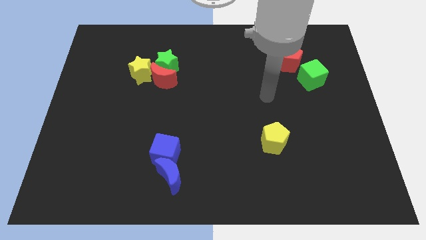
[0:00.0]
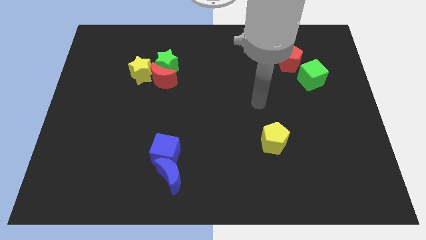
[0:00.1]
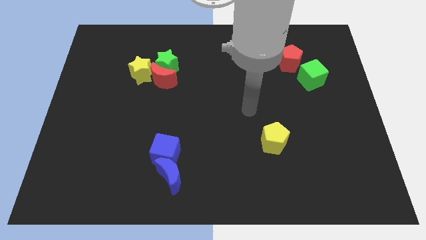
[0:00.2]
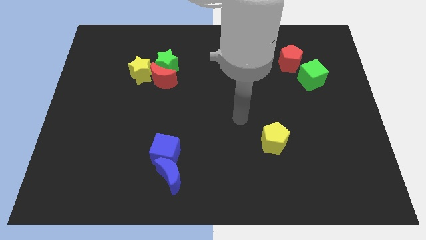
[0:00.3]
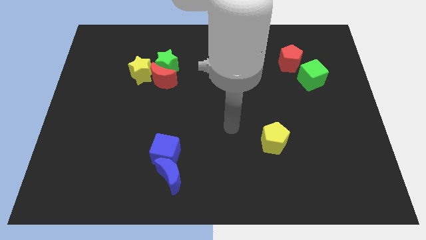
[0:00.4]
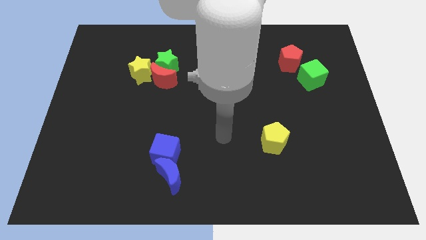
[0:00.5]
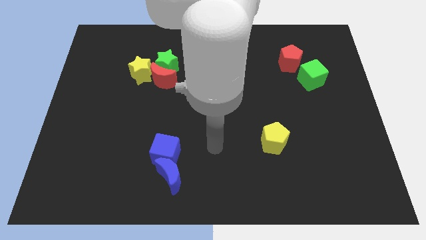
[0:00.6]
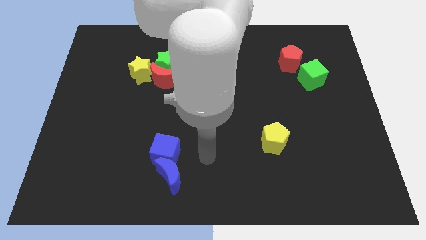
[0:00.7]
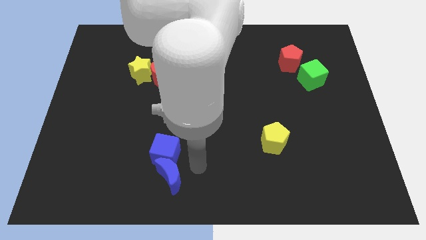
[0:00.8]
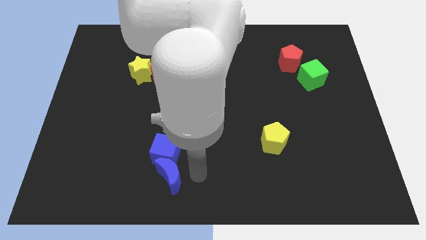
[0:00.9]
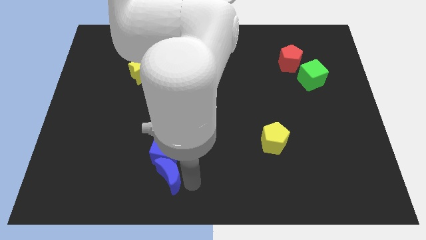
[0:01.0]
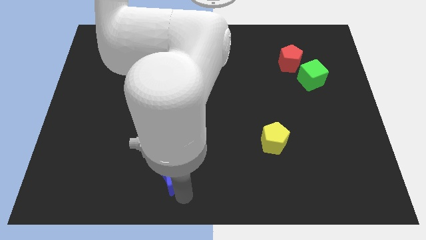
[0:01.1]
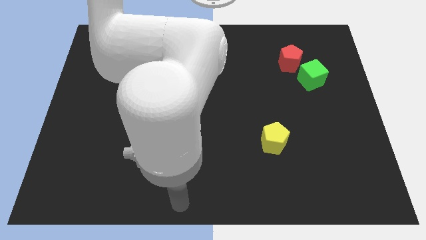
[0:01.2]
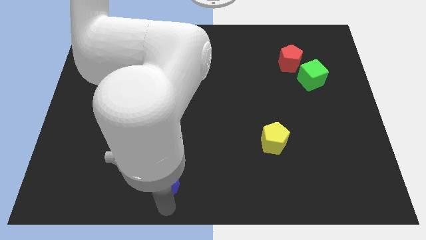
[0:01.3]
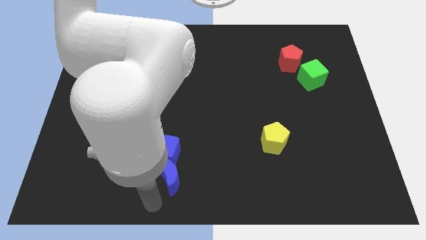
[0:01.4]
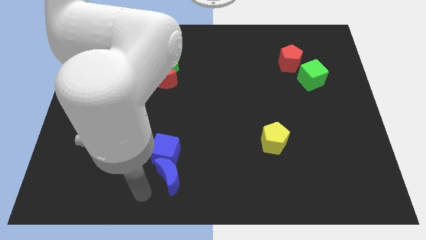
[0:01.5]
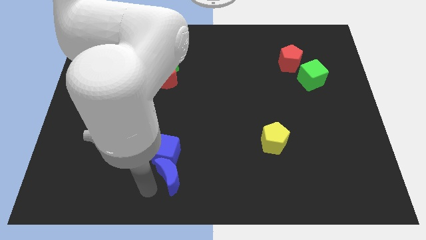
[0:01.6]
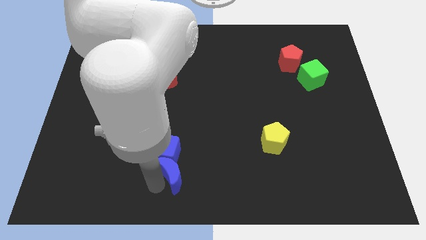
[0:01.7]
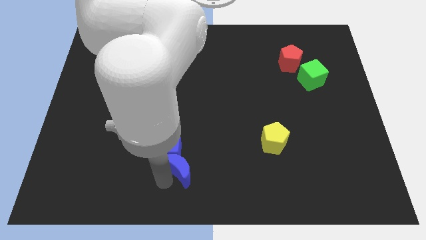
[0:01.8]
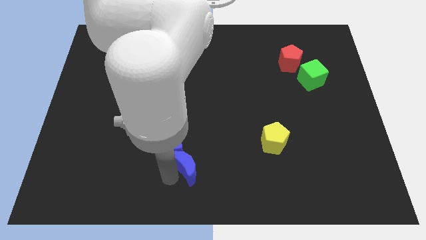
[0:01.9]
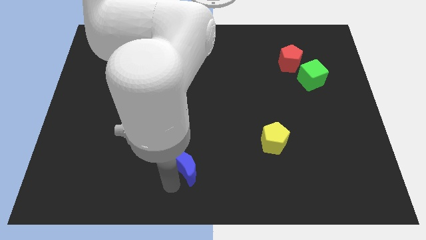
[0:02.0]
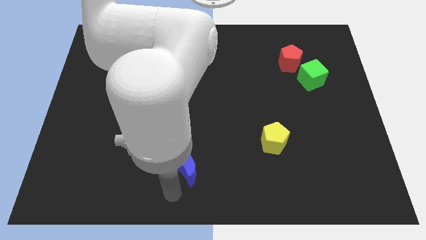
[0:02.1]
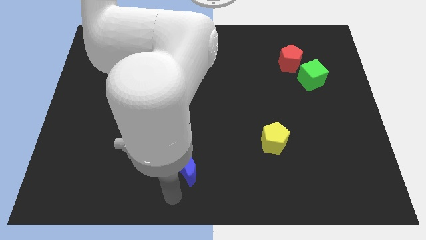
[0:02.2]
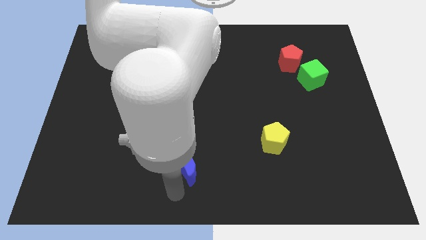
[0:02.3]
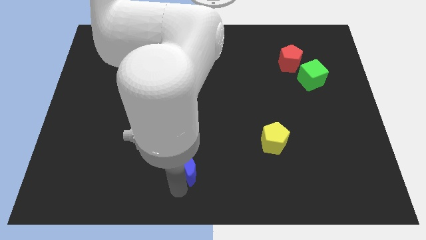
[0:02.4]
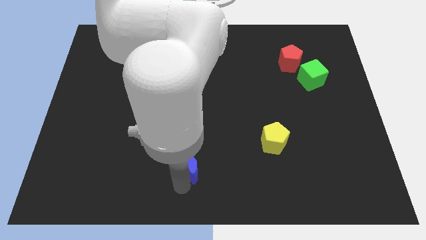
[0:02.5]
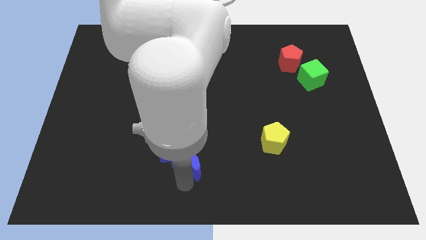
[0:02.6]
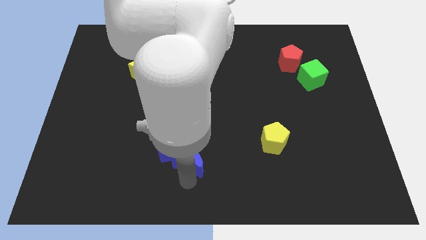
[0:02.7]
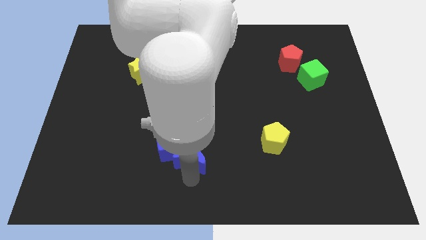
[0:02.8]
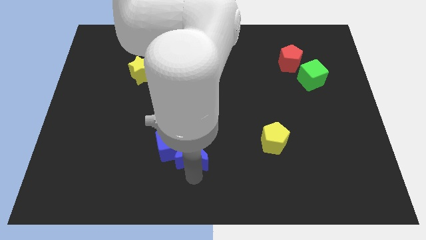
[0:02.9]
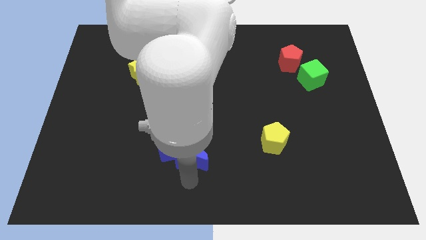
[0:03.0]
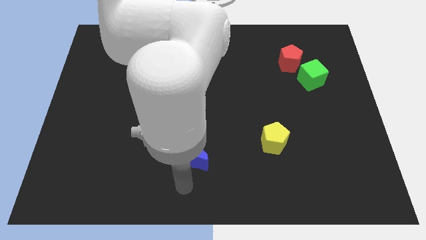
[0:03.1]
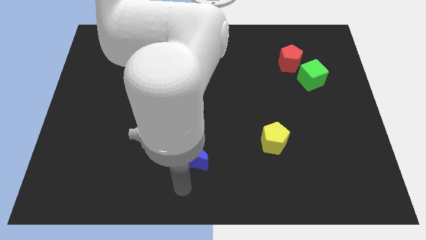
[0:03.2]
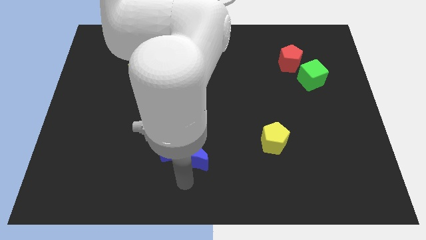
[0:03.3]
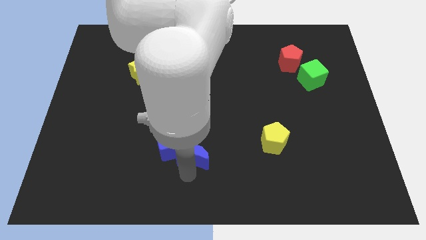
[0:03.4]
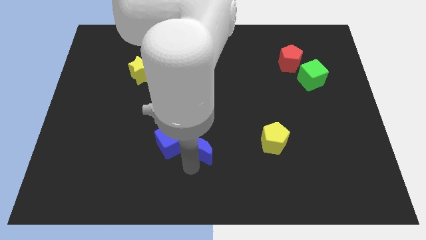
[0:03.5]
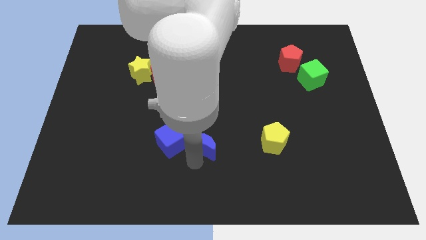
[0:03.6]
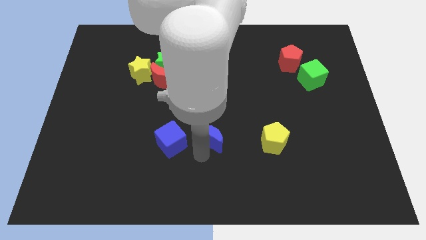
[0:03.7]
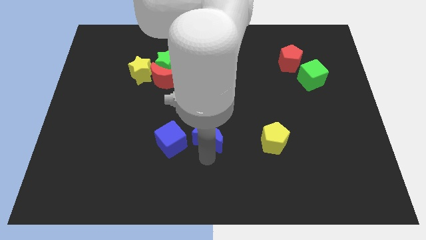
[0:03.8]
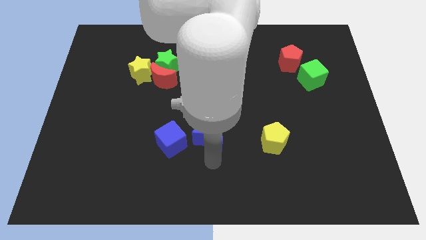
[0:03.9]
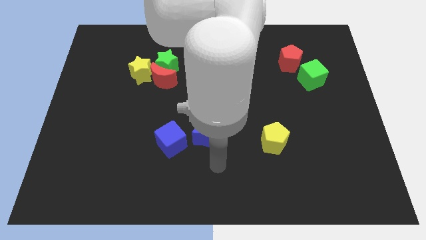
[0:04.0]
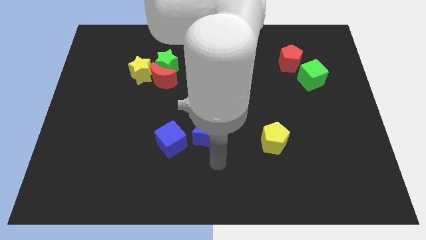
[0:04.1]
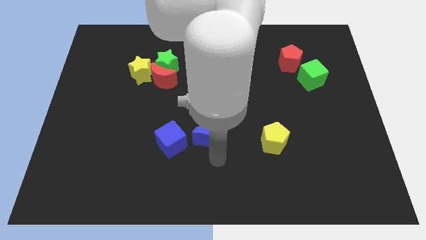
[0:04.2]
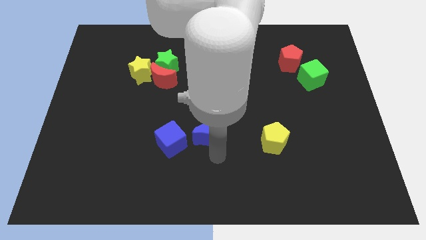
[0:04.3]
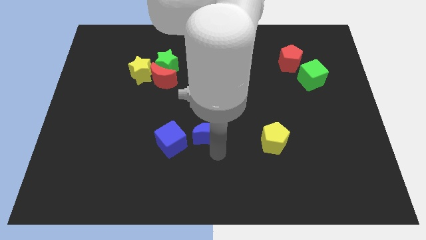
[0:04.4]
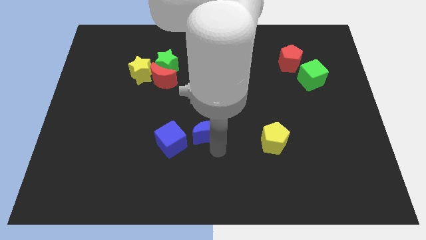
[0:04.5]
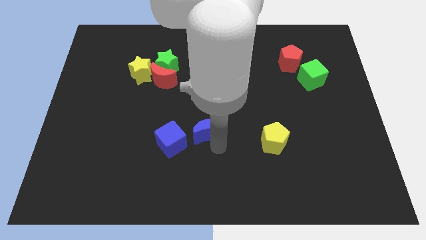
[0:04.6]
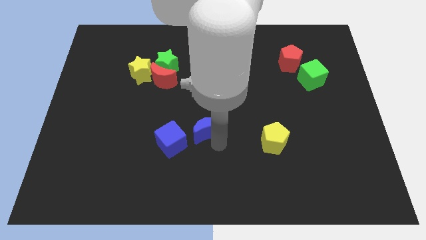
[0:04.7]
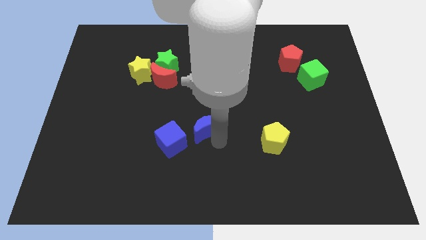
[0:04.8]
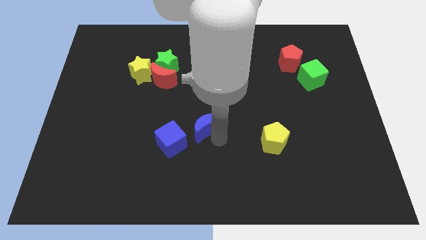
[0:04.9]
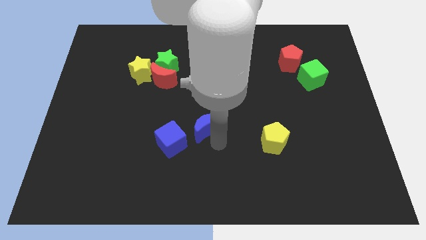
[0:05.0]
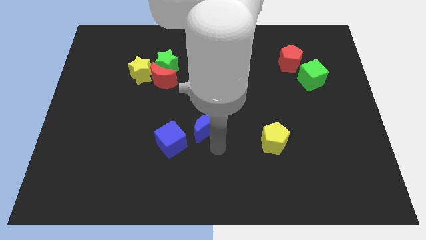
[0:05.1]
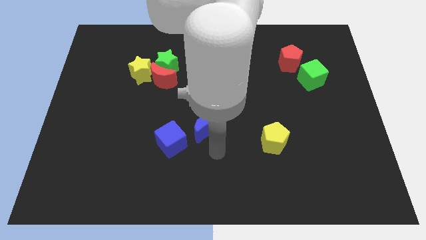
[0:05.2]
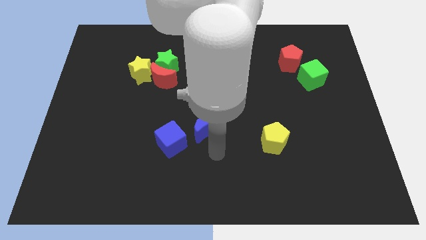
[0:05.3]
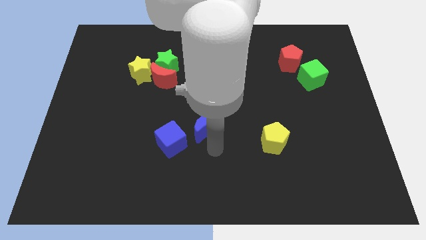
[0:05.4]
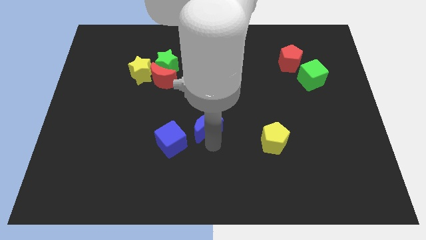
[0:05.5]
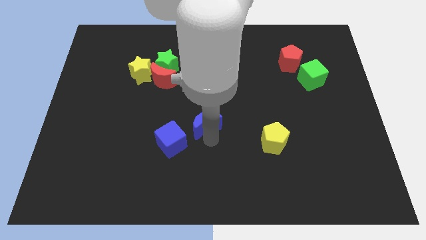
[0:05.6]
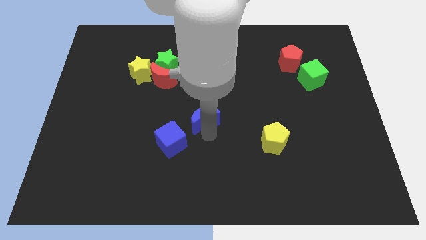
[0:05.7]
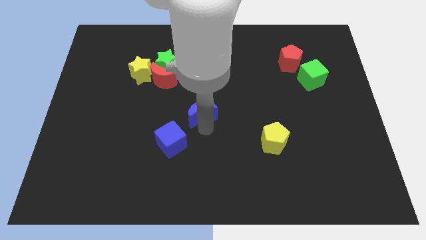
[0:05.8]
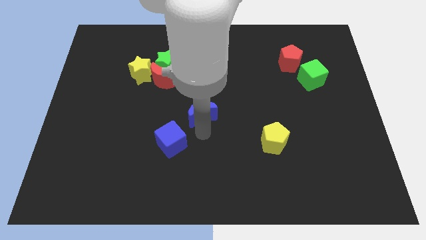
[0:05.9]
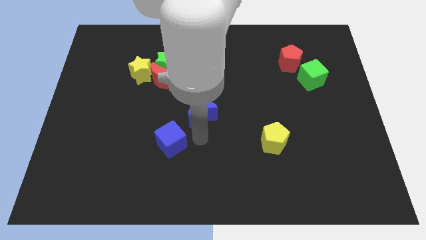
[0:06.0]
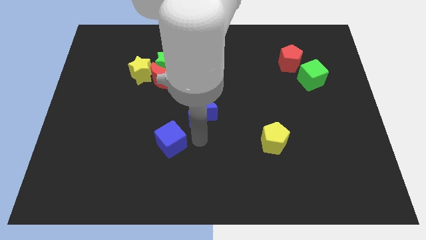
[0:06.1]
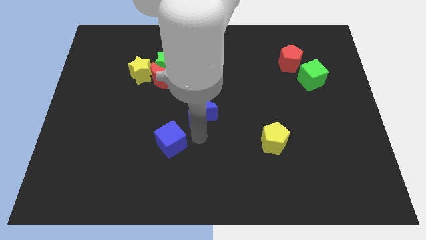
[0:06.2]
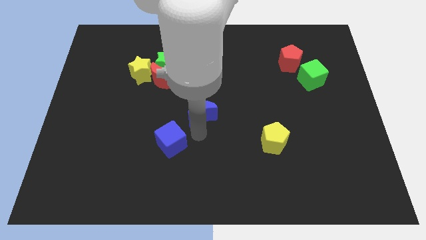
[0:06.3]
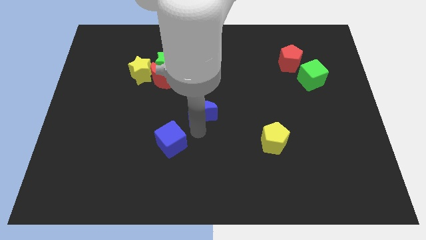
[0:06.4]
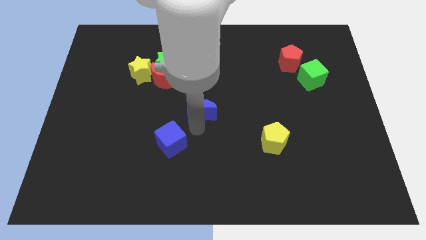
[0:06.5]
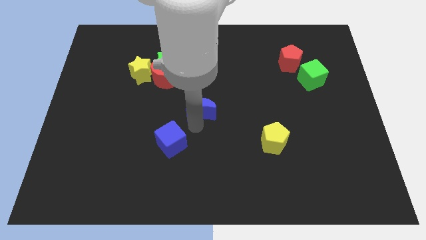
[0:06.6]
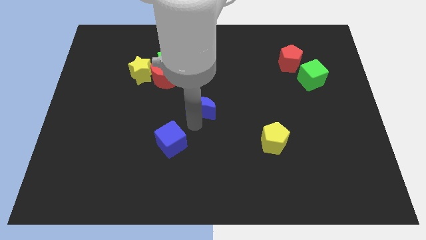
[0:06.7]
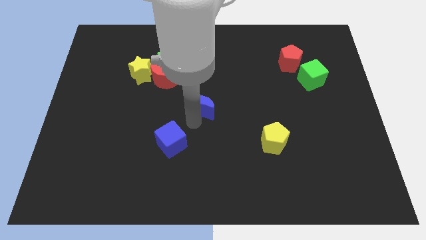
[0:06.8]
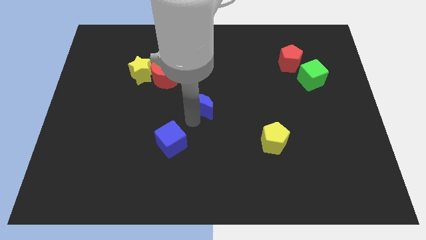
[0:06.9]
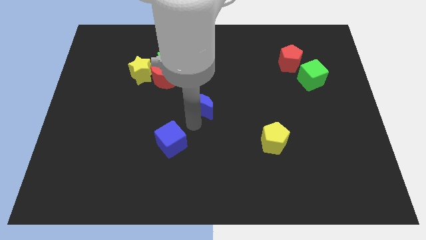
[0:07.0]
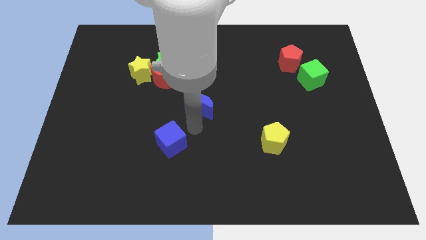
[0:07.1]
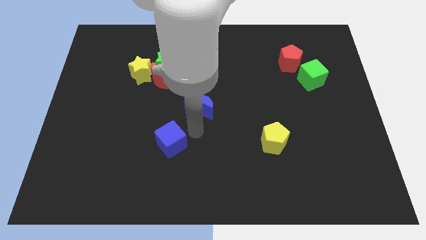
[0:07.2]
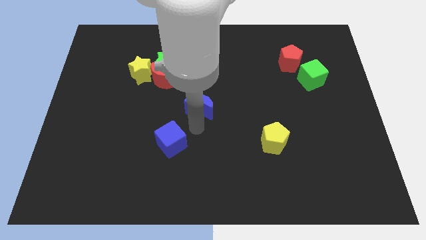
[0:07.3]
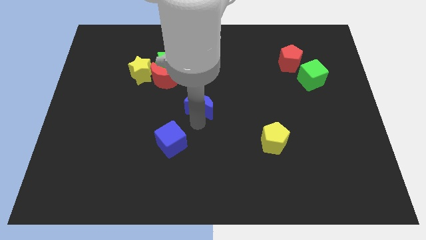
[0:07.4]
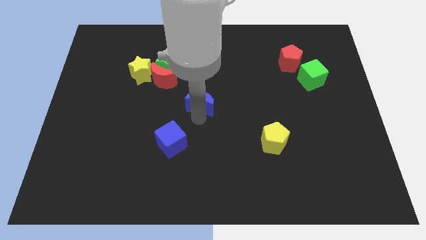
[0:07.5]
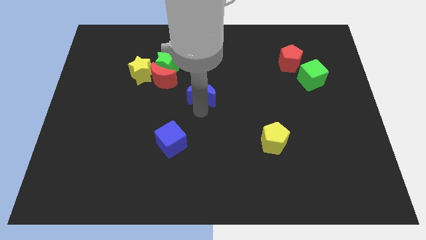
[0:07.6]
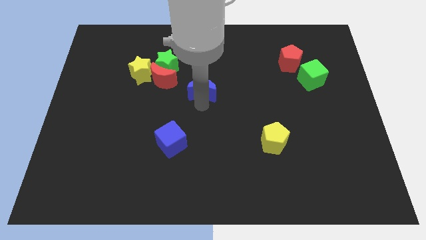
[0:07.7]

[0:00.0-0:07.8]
put the blue moon to the right side of the red moon
